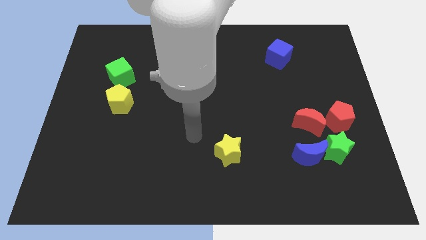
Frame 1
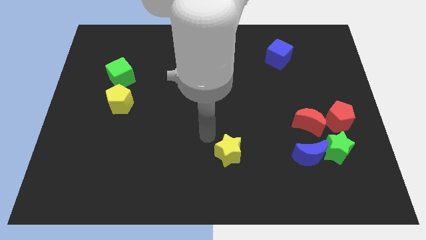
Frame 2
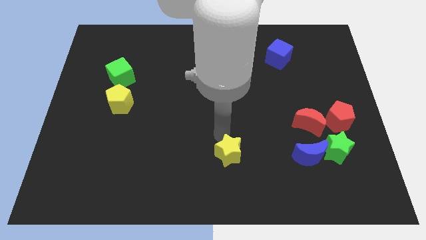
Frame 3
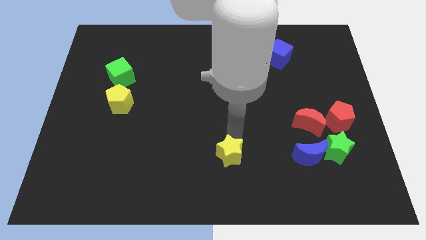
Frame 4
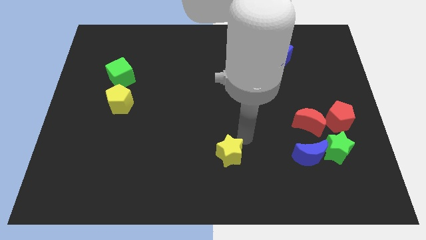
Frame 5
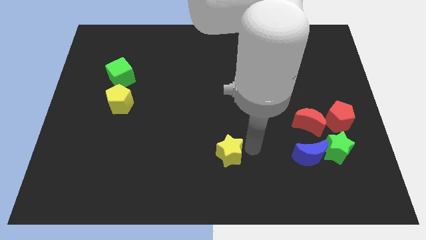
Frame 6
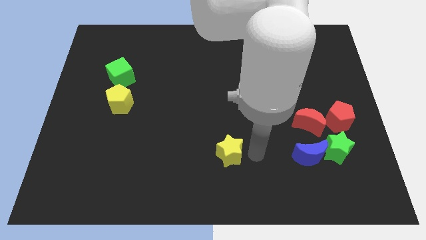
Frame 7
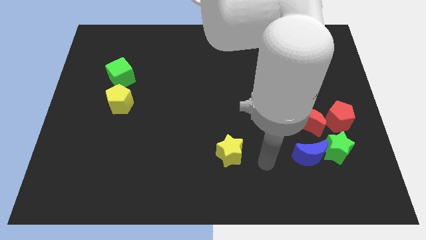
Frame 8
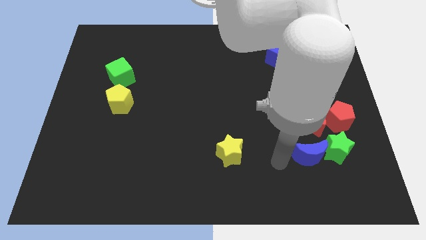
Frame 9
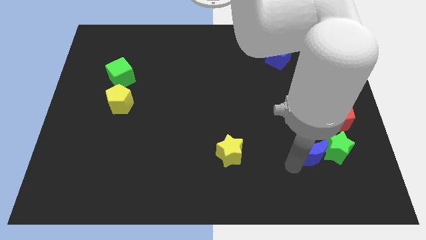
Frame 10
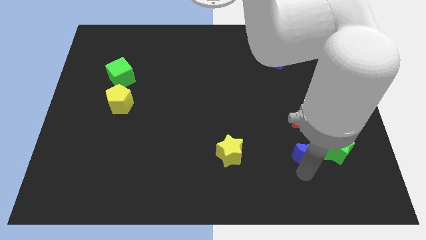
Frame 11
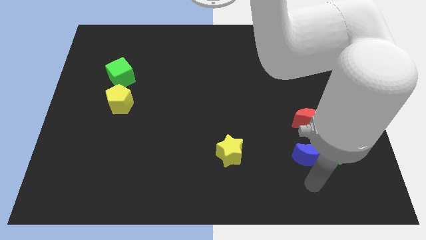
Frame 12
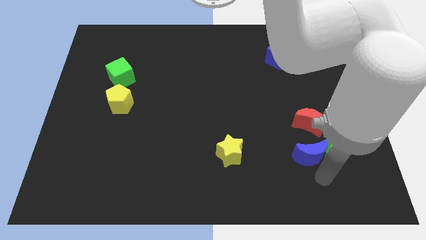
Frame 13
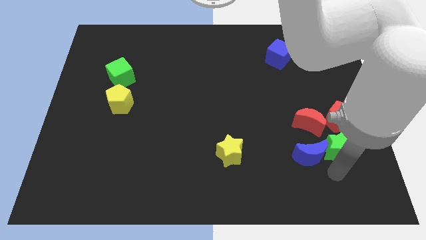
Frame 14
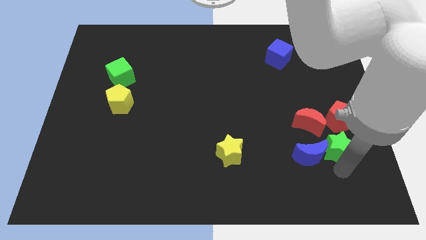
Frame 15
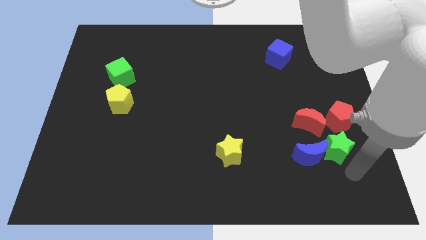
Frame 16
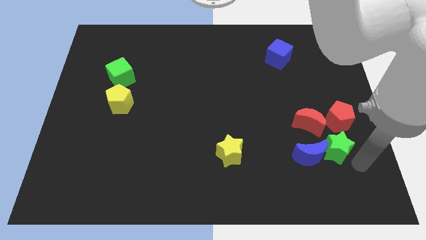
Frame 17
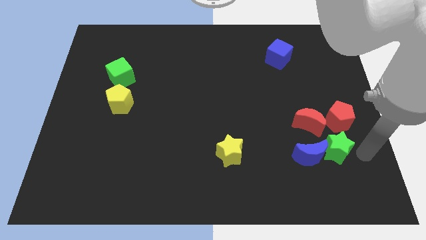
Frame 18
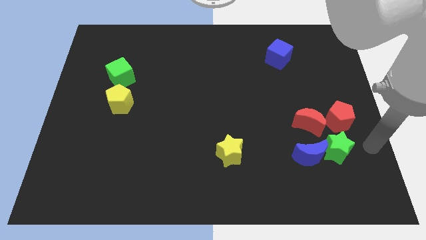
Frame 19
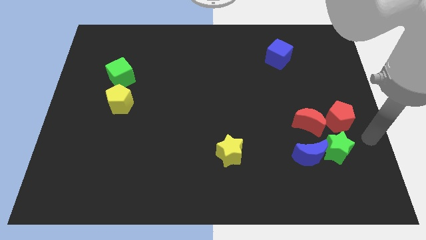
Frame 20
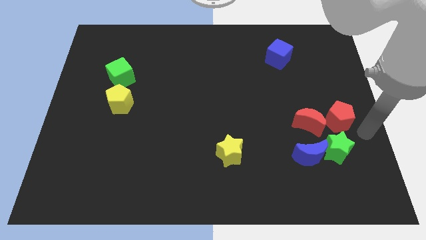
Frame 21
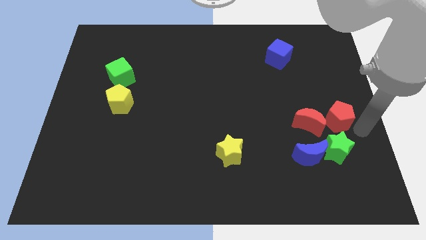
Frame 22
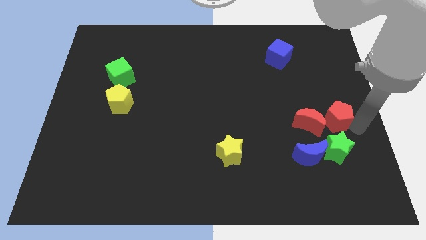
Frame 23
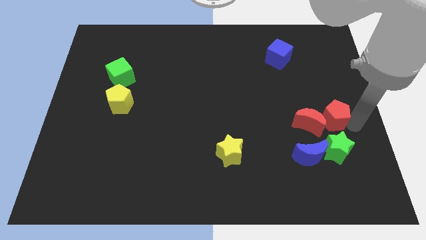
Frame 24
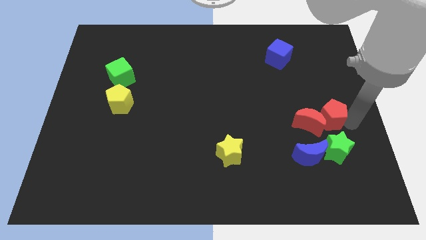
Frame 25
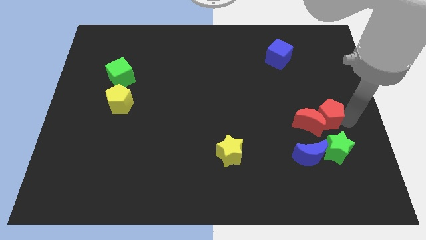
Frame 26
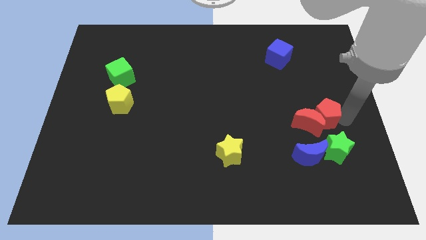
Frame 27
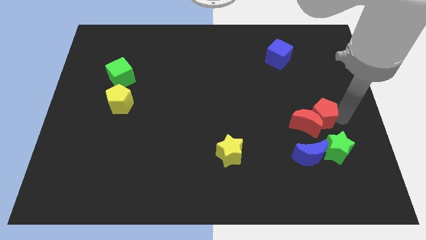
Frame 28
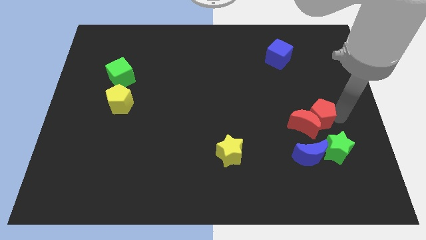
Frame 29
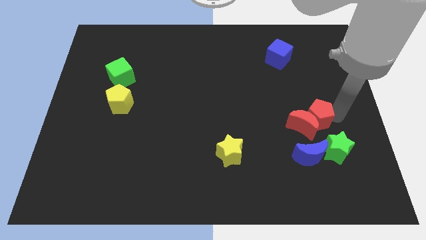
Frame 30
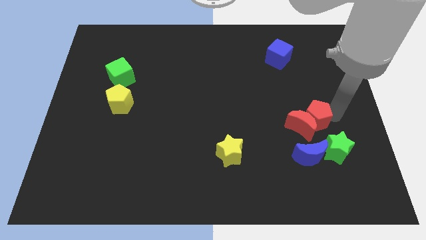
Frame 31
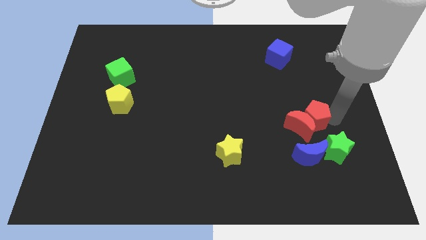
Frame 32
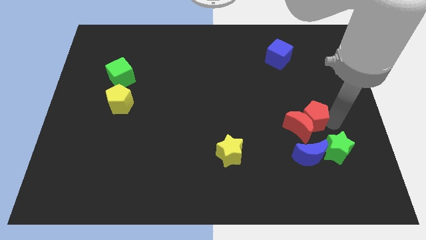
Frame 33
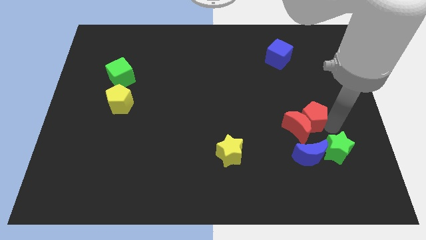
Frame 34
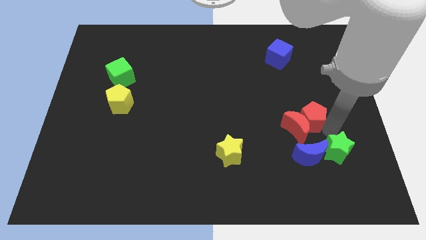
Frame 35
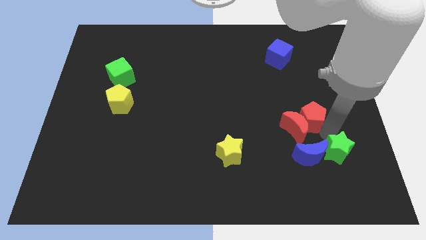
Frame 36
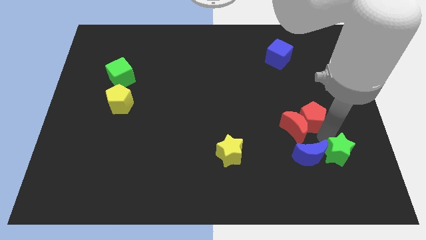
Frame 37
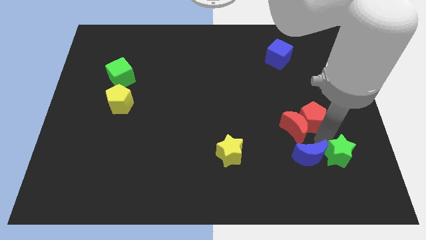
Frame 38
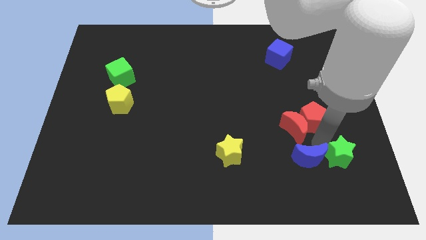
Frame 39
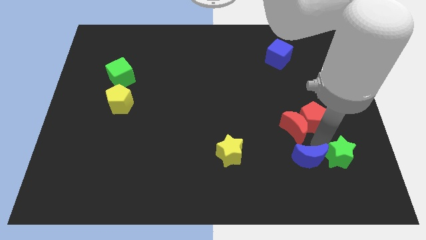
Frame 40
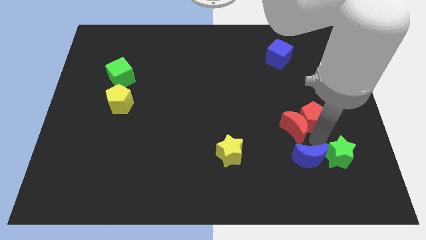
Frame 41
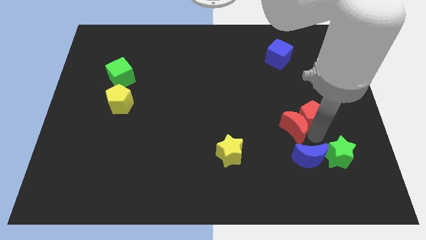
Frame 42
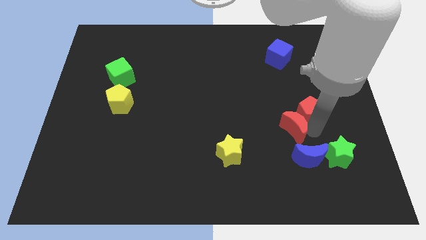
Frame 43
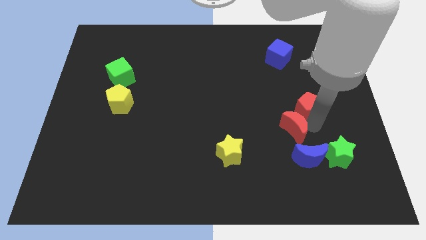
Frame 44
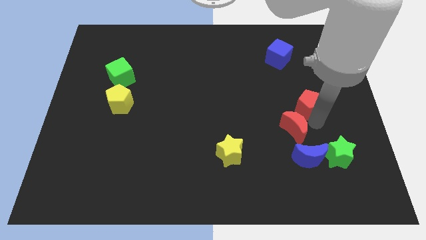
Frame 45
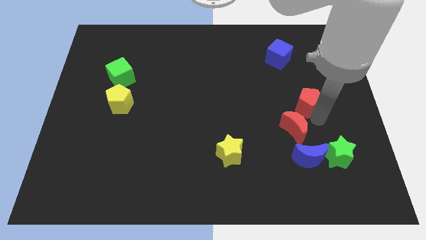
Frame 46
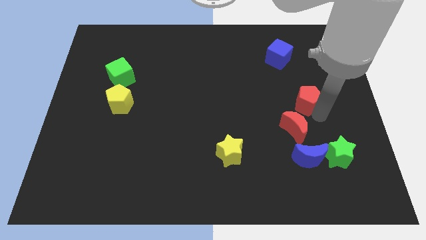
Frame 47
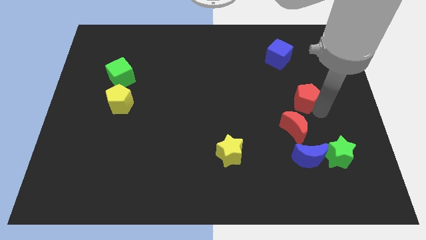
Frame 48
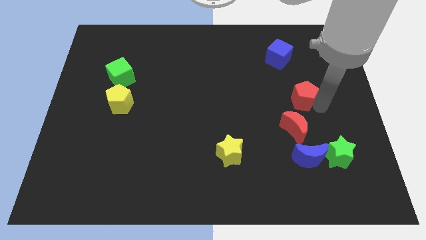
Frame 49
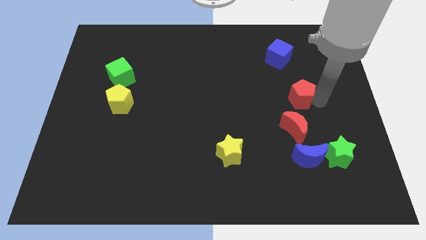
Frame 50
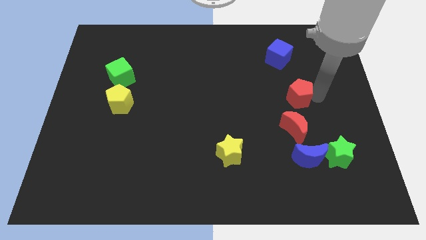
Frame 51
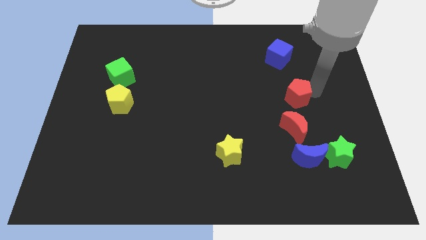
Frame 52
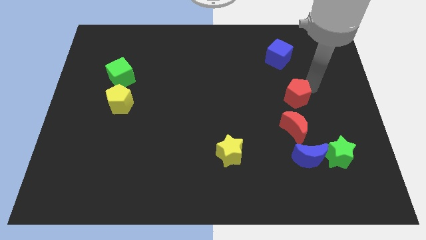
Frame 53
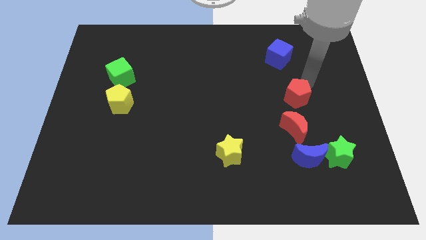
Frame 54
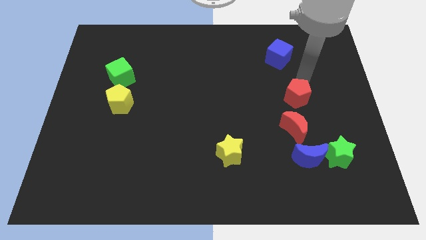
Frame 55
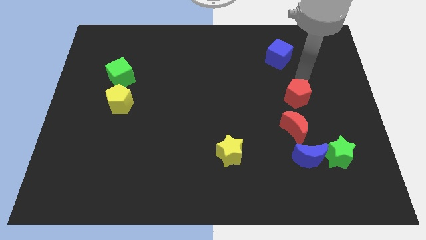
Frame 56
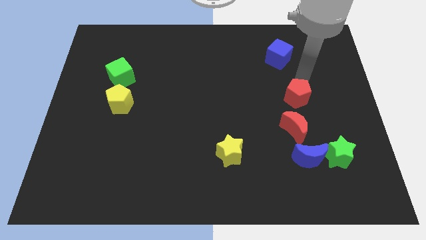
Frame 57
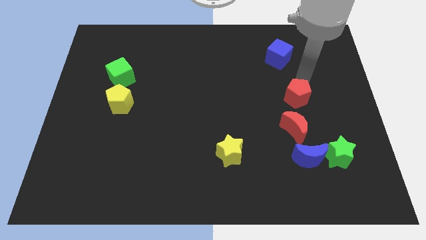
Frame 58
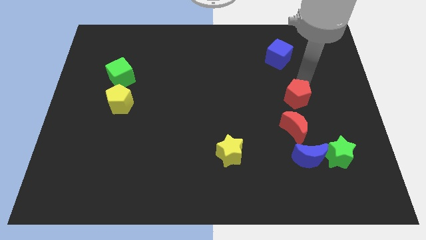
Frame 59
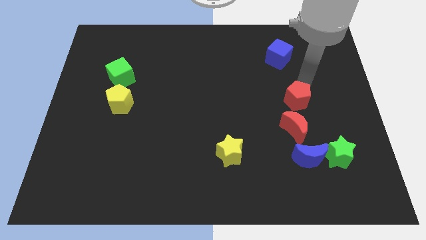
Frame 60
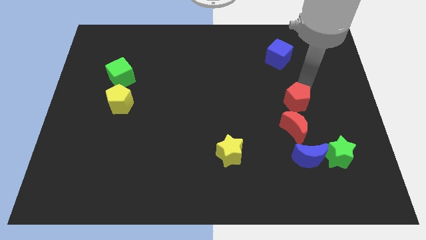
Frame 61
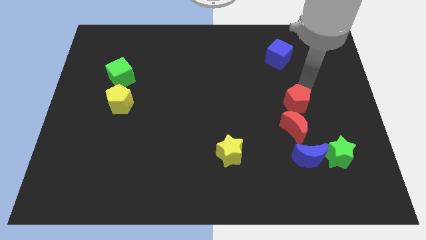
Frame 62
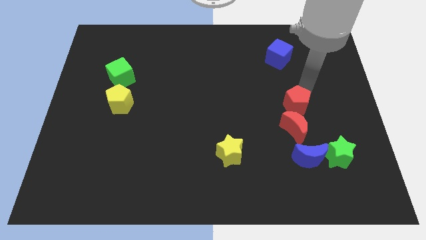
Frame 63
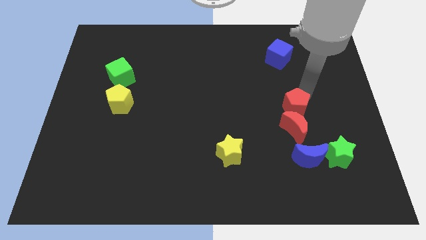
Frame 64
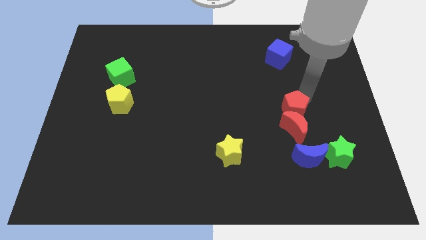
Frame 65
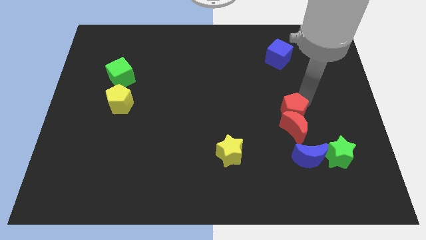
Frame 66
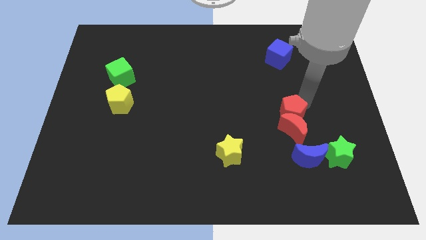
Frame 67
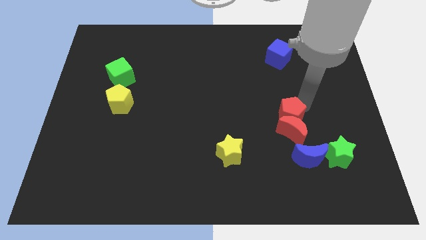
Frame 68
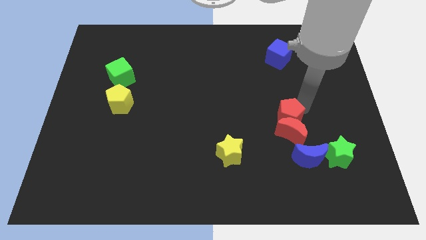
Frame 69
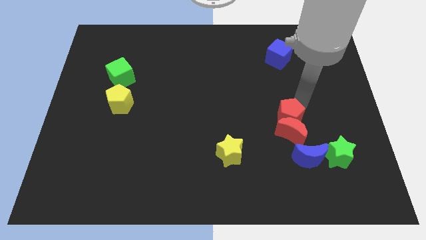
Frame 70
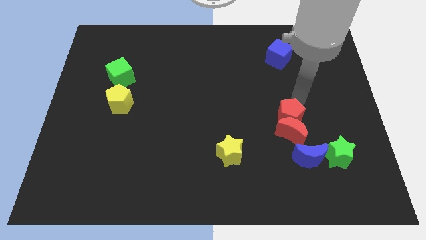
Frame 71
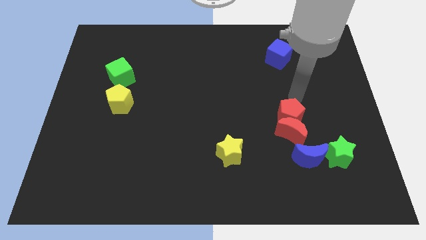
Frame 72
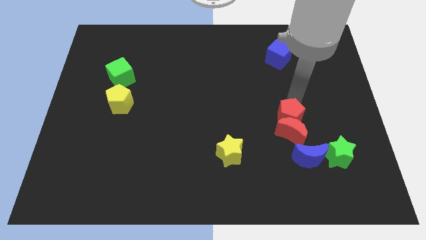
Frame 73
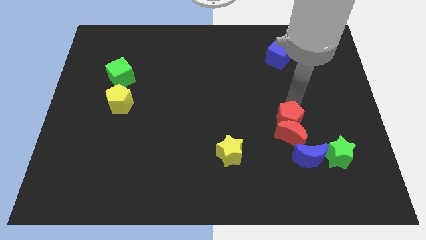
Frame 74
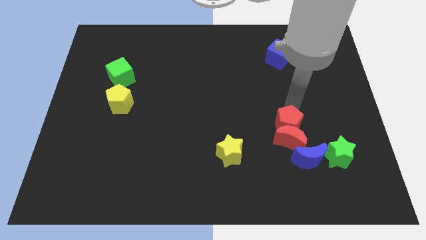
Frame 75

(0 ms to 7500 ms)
slide the red pentagon a bit downwards and then to the left

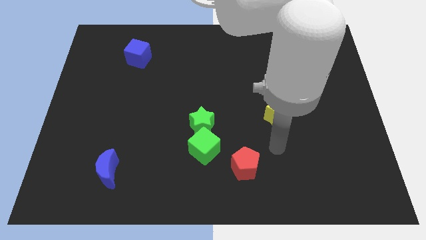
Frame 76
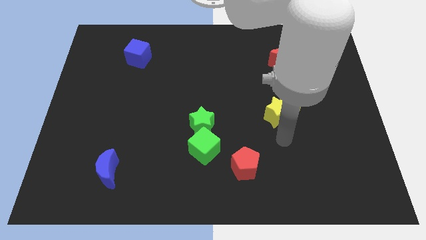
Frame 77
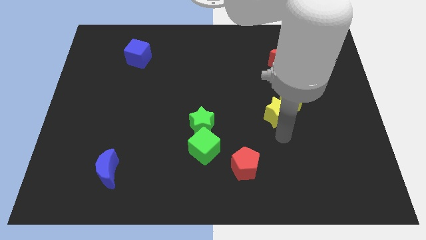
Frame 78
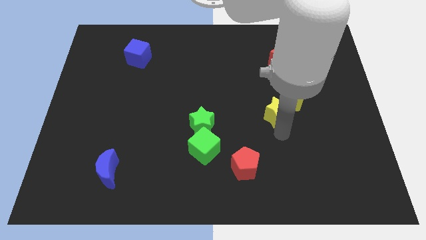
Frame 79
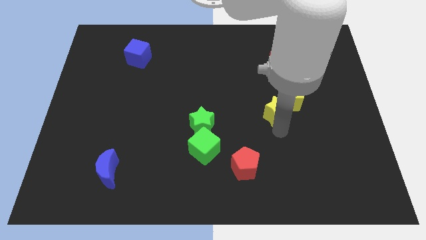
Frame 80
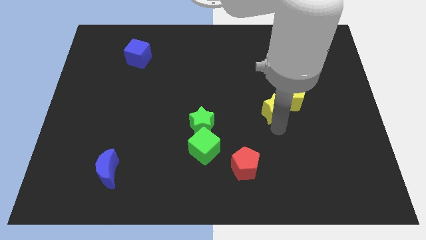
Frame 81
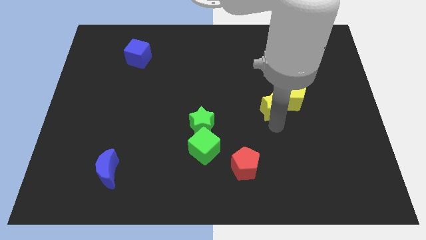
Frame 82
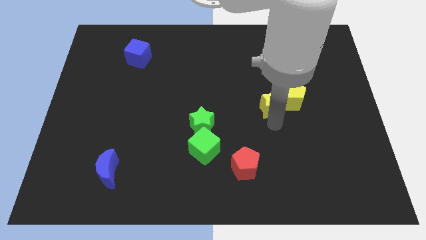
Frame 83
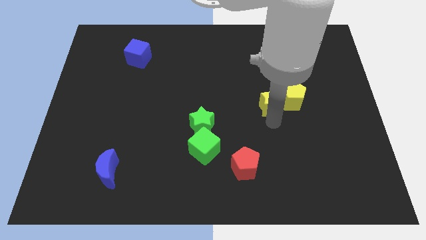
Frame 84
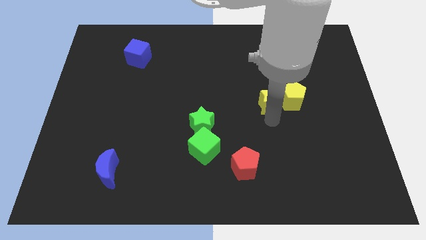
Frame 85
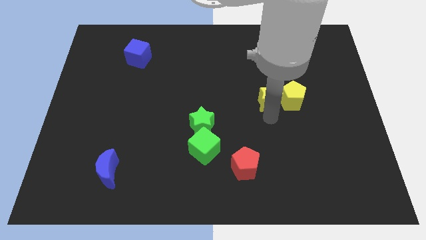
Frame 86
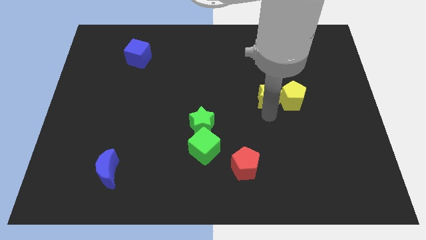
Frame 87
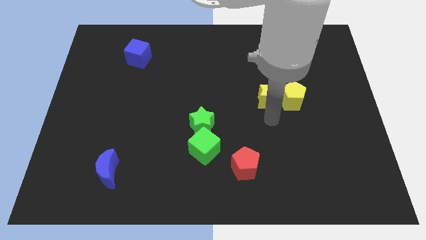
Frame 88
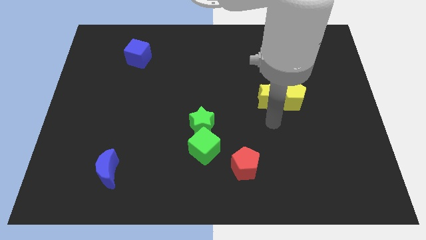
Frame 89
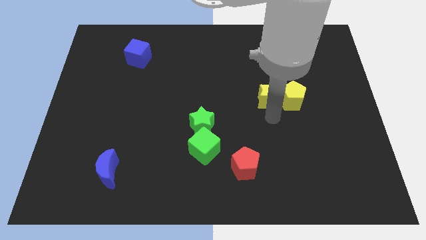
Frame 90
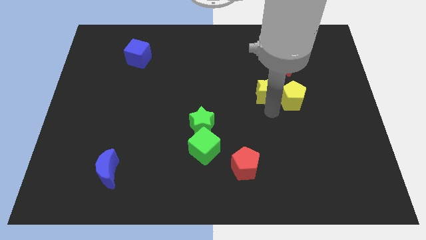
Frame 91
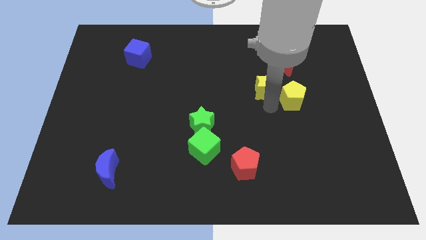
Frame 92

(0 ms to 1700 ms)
push the yellow star a little upwards
